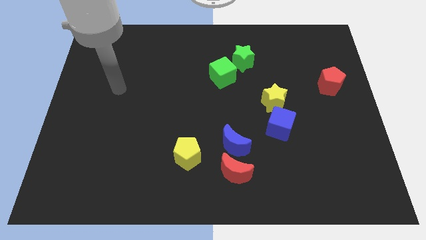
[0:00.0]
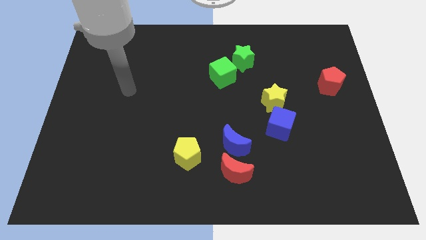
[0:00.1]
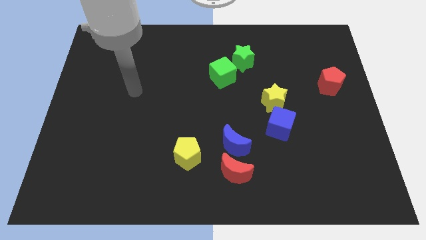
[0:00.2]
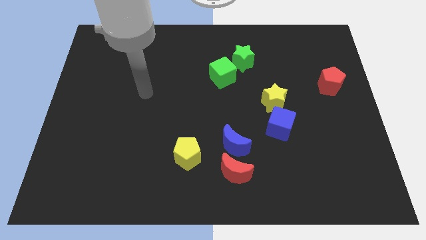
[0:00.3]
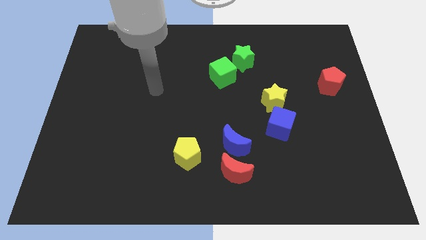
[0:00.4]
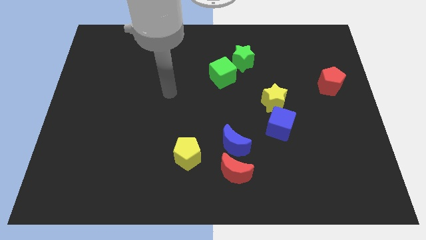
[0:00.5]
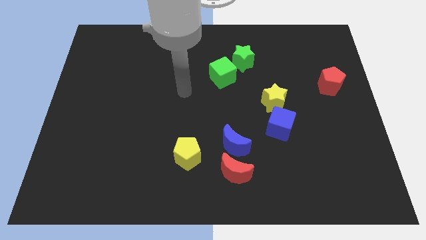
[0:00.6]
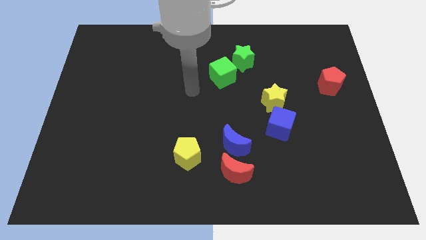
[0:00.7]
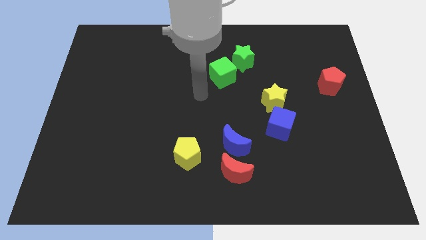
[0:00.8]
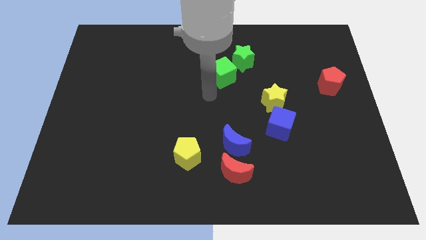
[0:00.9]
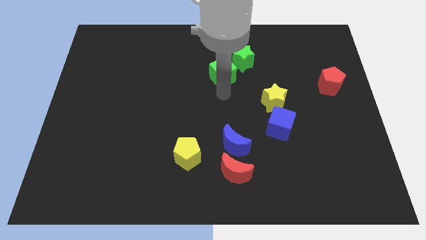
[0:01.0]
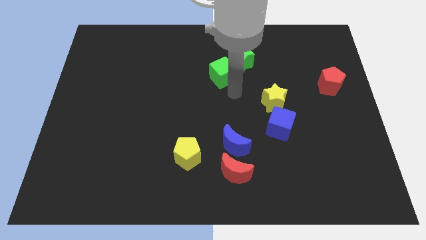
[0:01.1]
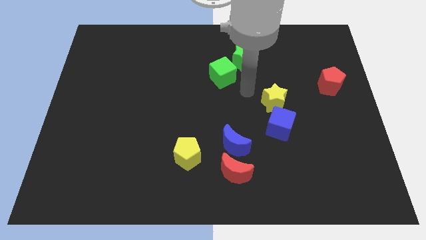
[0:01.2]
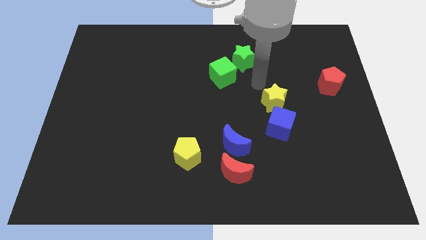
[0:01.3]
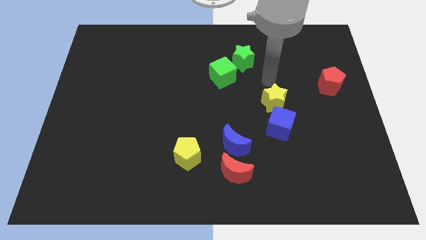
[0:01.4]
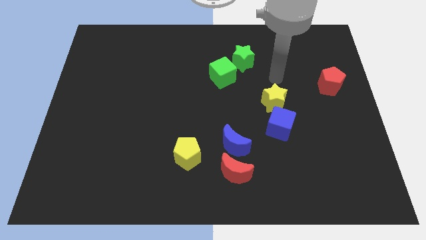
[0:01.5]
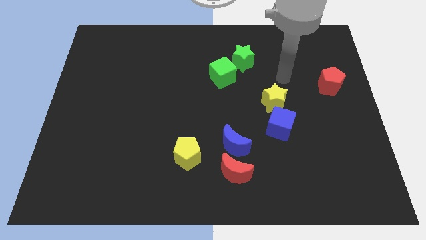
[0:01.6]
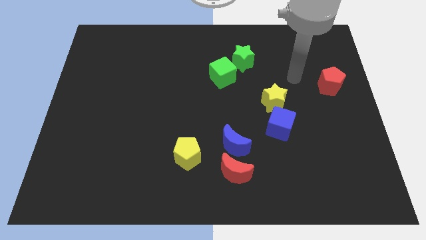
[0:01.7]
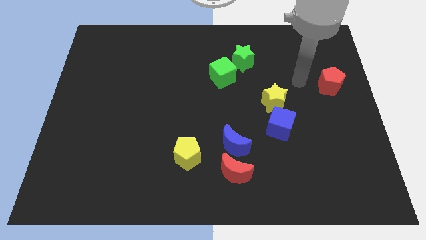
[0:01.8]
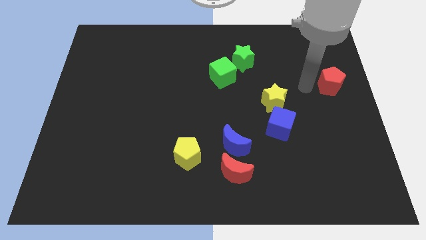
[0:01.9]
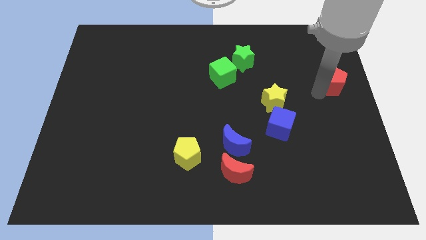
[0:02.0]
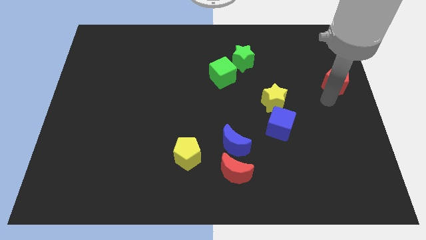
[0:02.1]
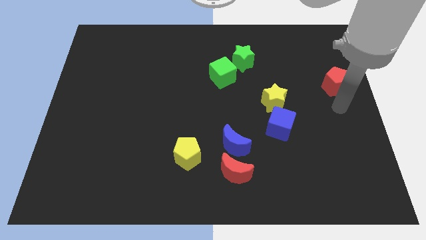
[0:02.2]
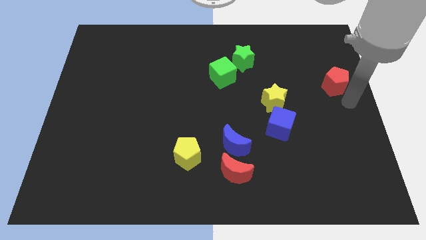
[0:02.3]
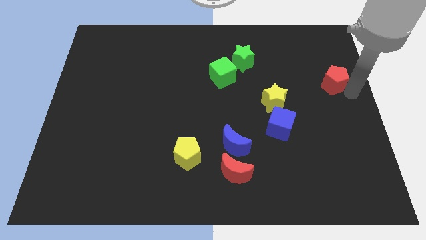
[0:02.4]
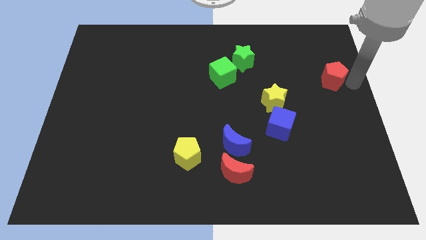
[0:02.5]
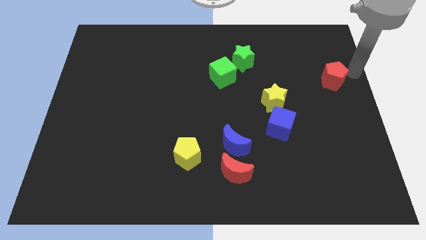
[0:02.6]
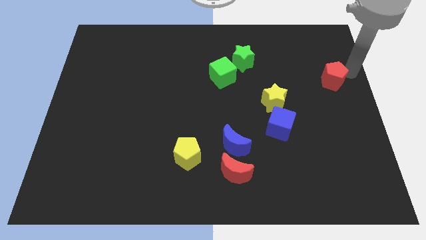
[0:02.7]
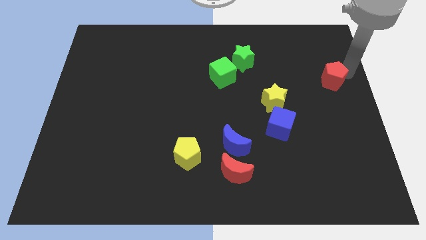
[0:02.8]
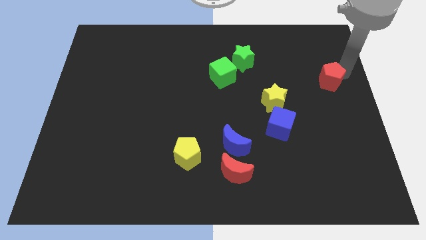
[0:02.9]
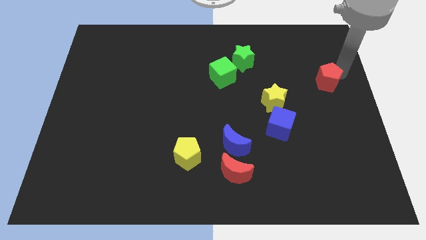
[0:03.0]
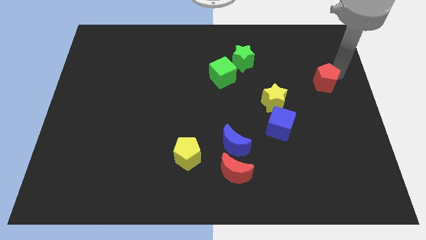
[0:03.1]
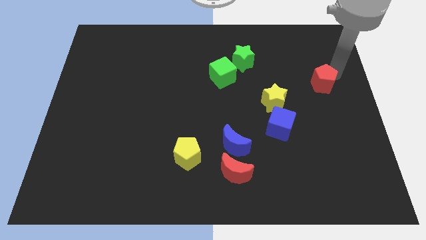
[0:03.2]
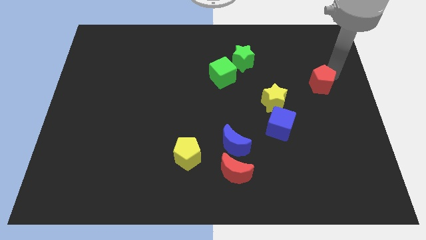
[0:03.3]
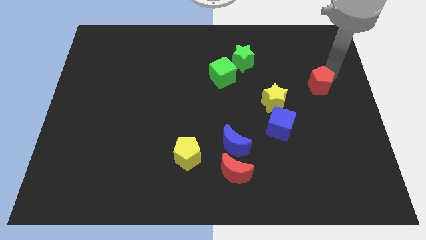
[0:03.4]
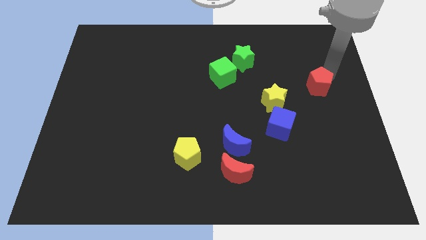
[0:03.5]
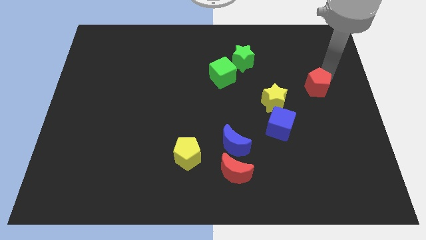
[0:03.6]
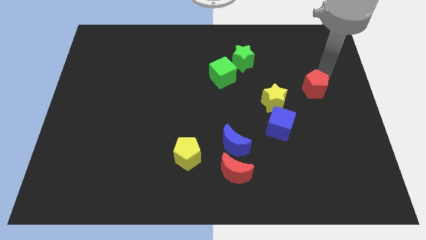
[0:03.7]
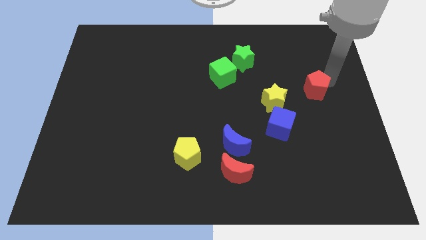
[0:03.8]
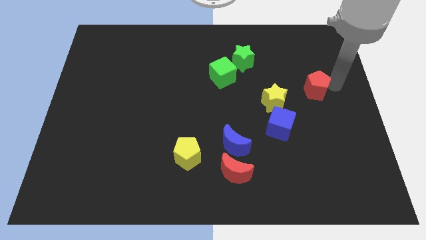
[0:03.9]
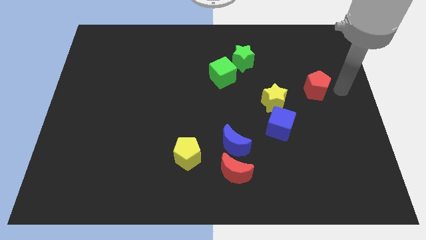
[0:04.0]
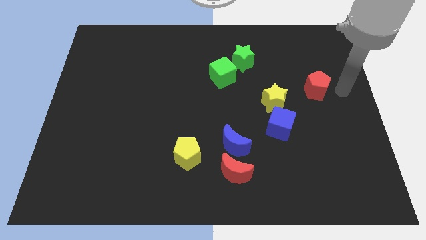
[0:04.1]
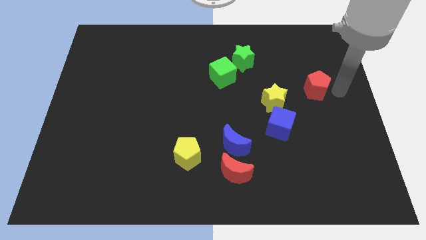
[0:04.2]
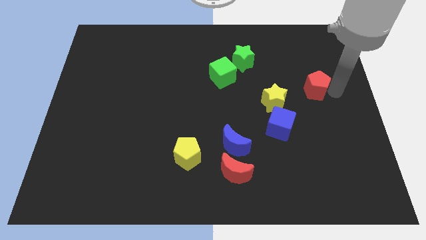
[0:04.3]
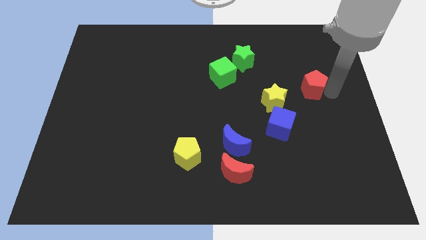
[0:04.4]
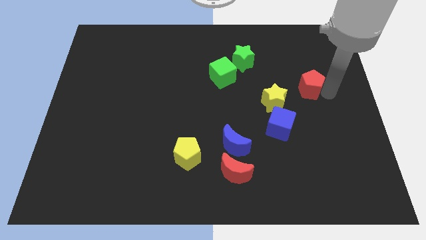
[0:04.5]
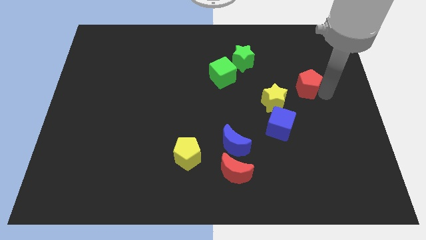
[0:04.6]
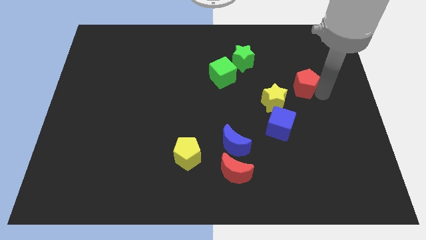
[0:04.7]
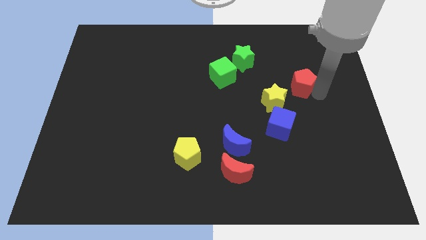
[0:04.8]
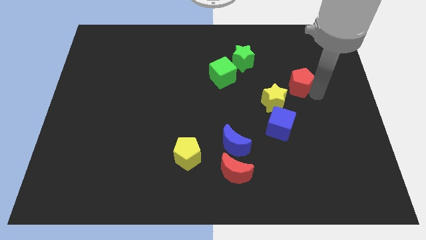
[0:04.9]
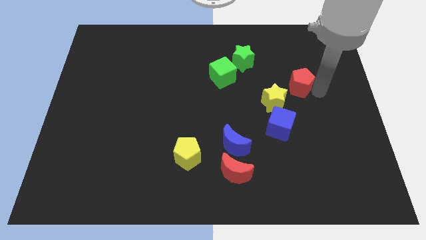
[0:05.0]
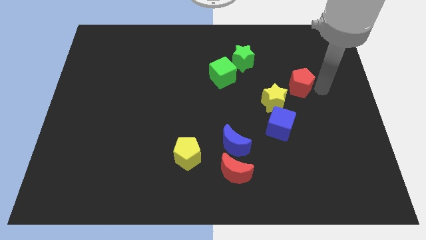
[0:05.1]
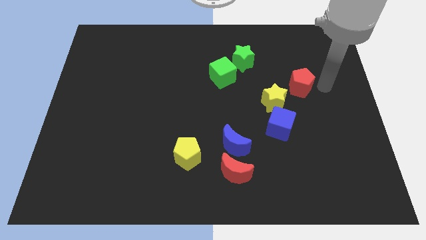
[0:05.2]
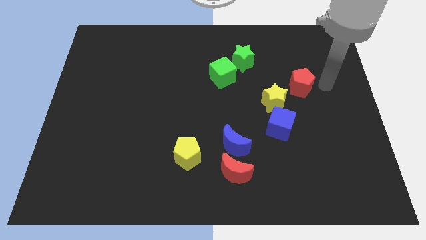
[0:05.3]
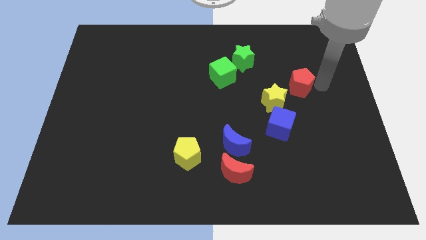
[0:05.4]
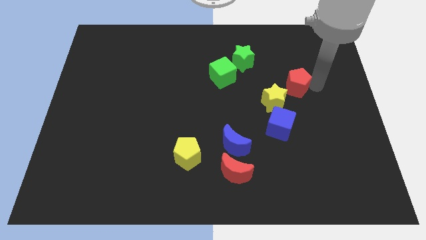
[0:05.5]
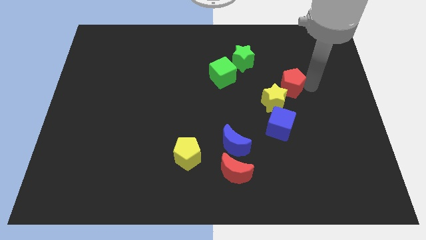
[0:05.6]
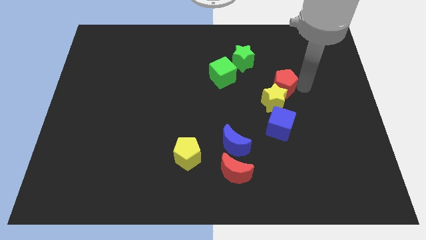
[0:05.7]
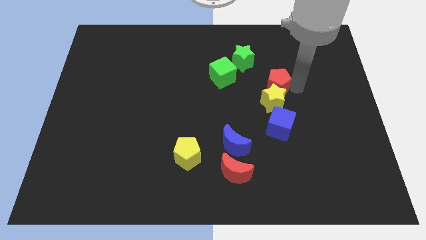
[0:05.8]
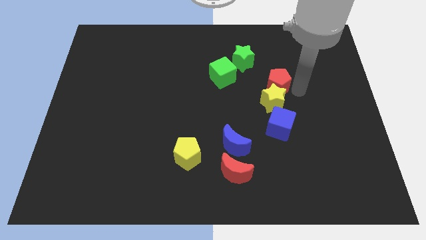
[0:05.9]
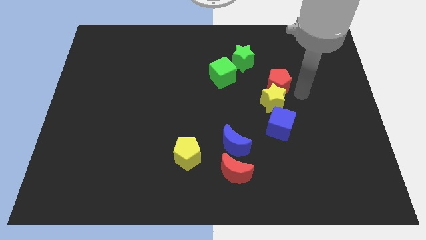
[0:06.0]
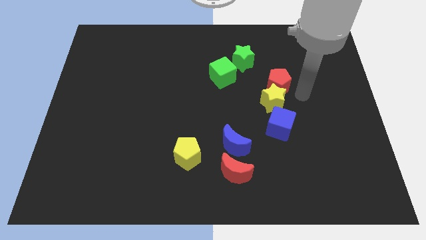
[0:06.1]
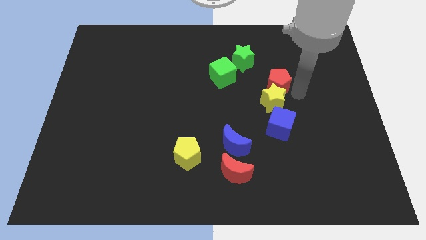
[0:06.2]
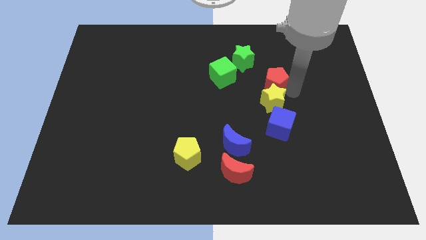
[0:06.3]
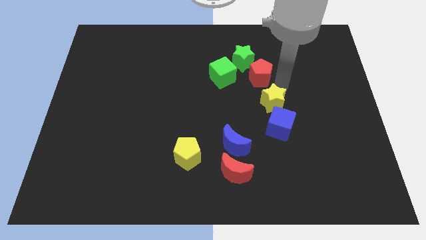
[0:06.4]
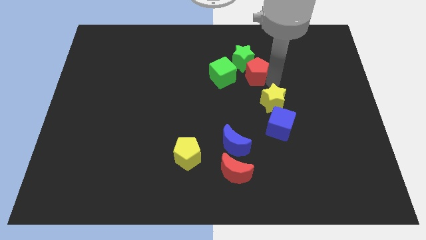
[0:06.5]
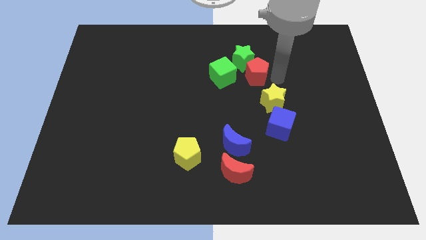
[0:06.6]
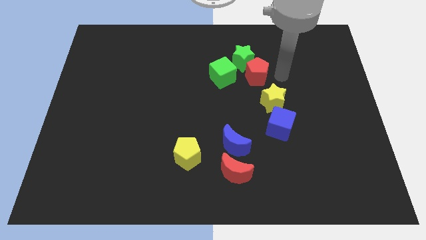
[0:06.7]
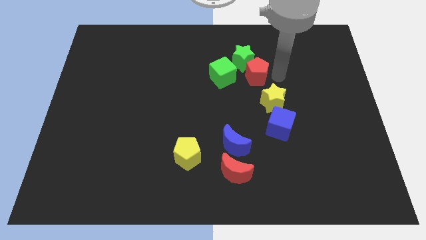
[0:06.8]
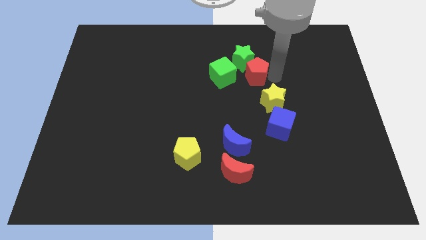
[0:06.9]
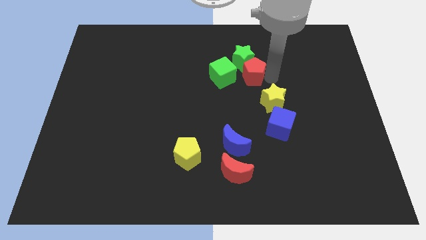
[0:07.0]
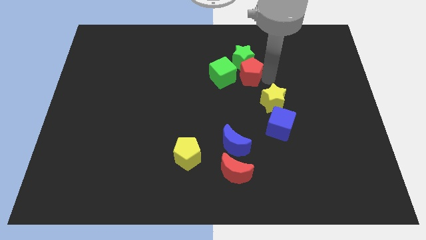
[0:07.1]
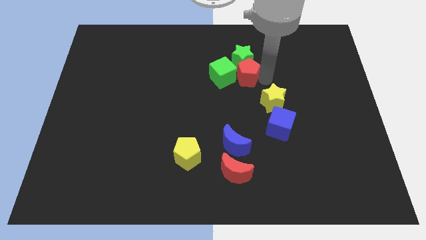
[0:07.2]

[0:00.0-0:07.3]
put the red pentagon towards the green cube
